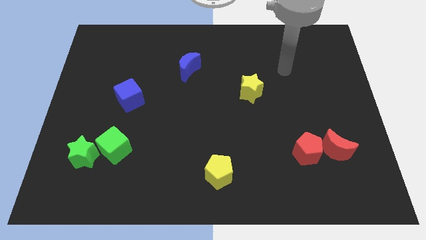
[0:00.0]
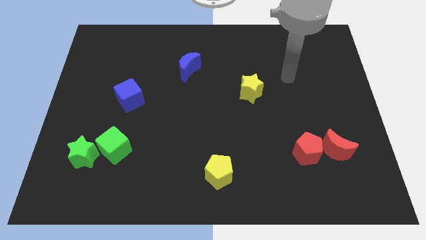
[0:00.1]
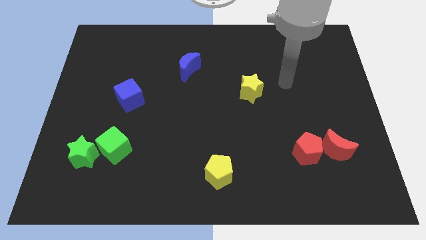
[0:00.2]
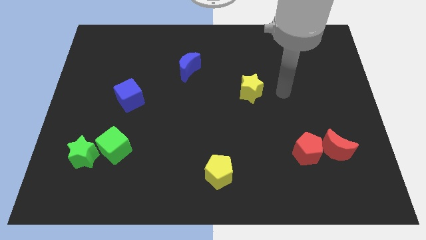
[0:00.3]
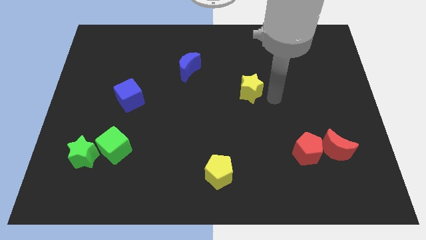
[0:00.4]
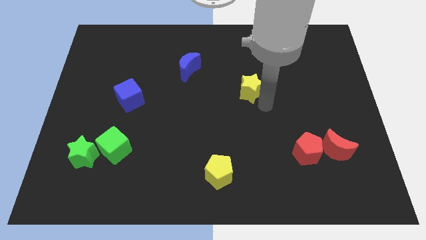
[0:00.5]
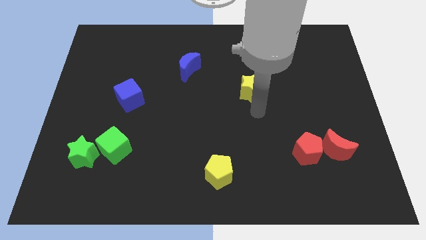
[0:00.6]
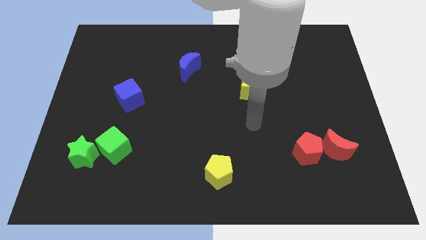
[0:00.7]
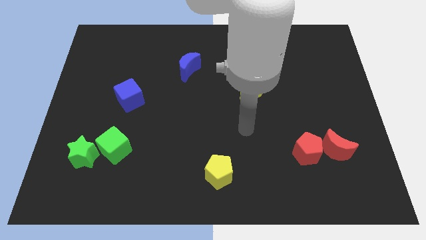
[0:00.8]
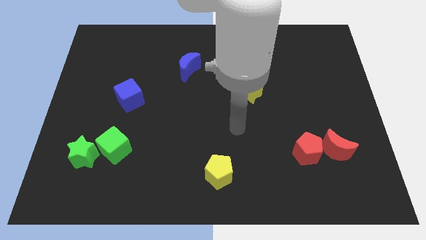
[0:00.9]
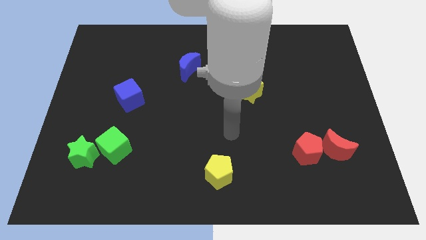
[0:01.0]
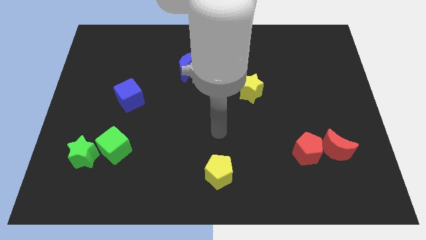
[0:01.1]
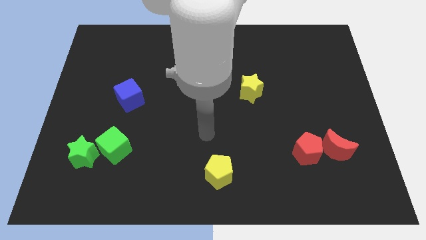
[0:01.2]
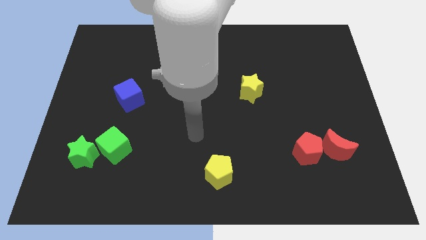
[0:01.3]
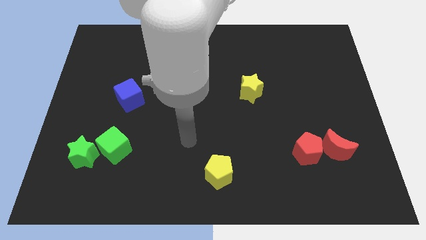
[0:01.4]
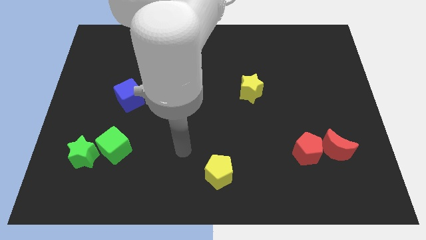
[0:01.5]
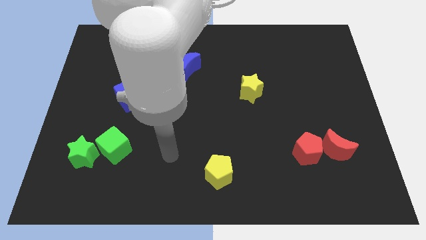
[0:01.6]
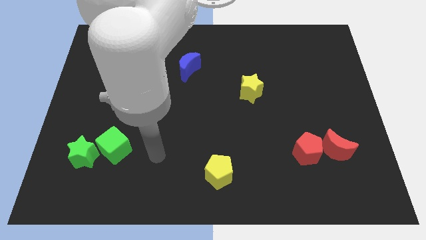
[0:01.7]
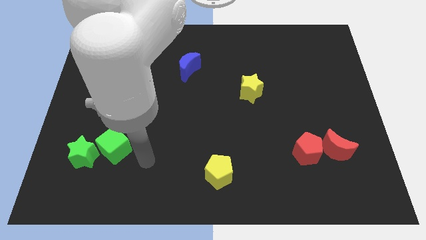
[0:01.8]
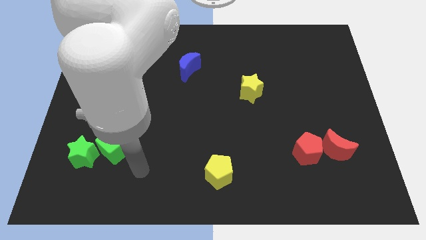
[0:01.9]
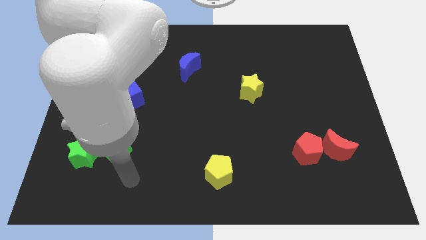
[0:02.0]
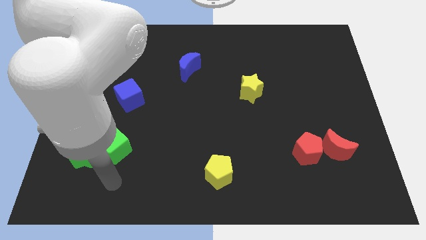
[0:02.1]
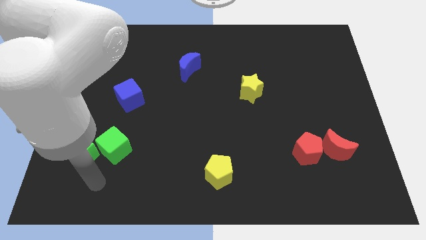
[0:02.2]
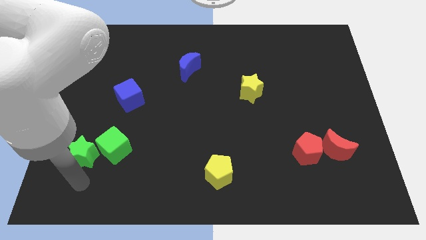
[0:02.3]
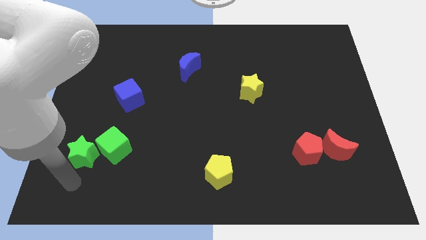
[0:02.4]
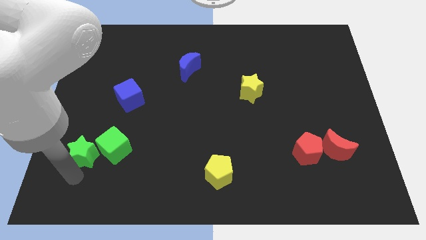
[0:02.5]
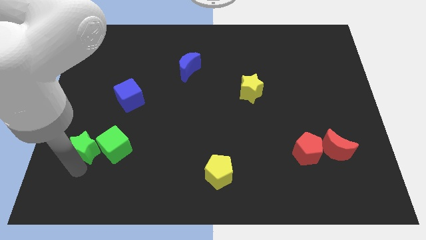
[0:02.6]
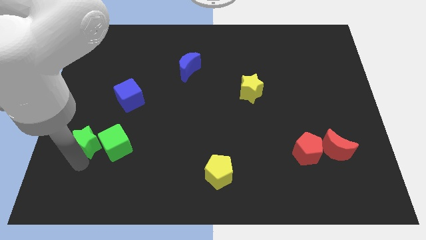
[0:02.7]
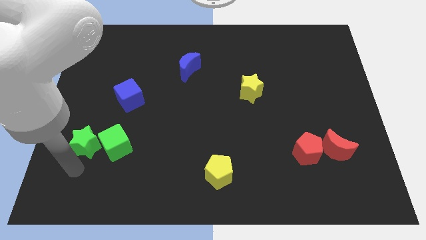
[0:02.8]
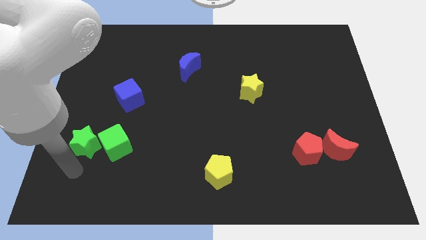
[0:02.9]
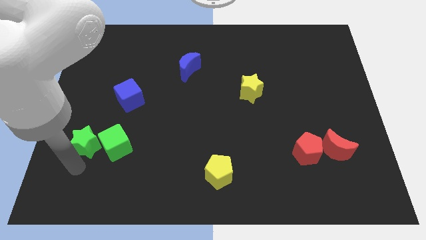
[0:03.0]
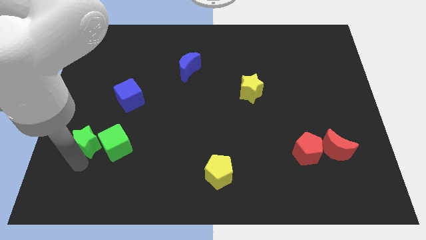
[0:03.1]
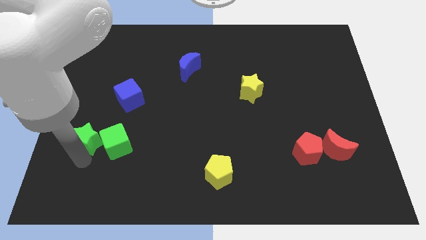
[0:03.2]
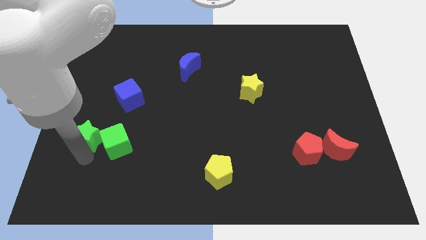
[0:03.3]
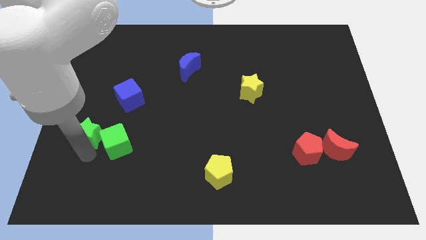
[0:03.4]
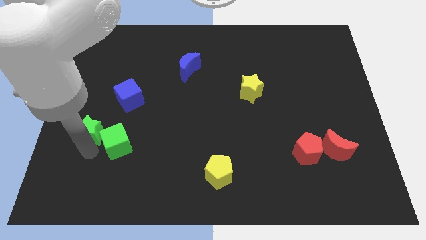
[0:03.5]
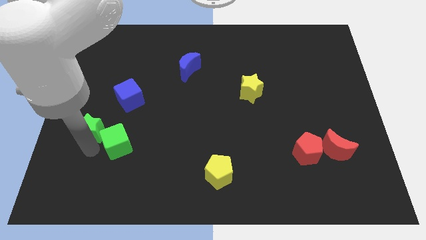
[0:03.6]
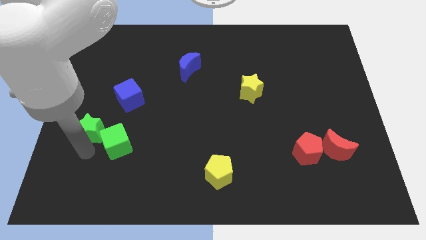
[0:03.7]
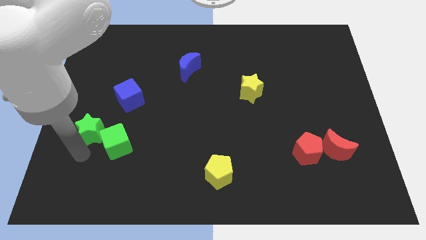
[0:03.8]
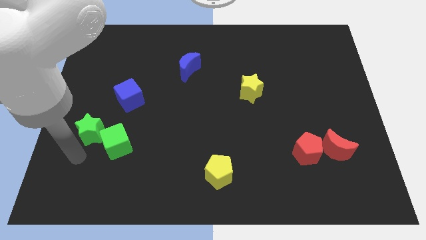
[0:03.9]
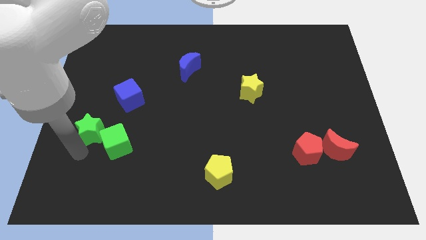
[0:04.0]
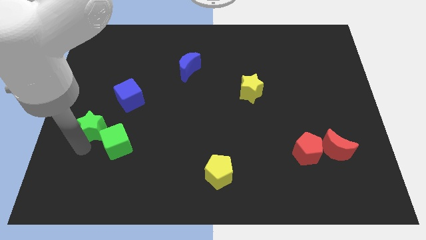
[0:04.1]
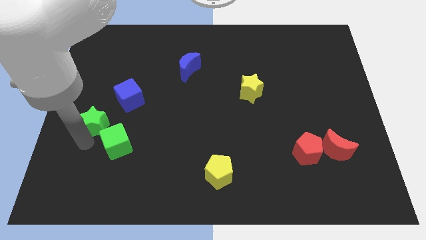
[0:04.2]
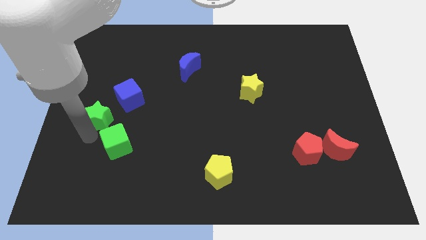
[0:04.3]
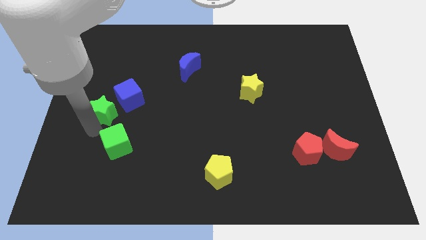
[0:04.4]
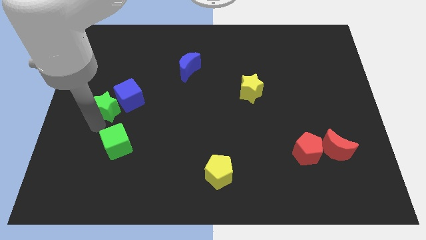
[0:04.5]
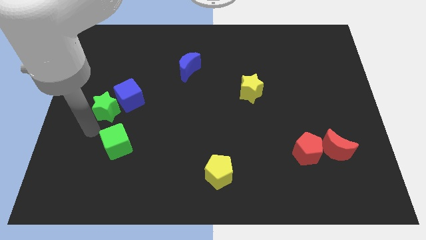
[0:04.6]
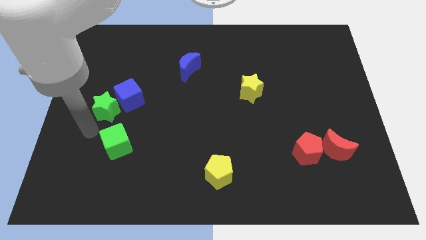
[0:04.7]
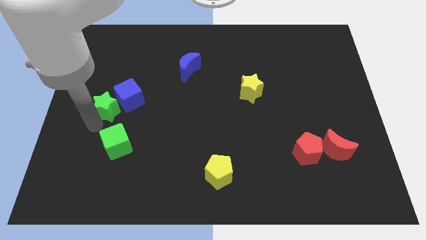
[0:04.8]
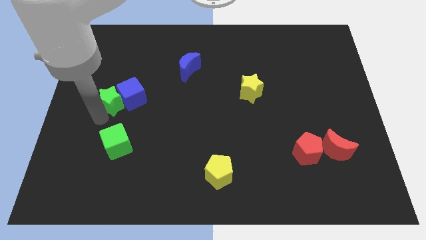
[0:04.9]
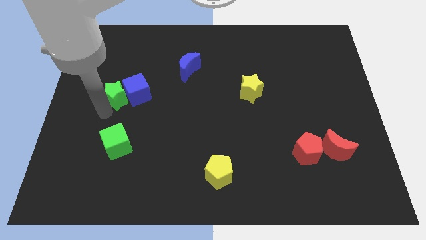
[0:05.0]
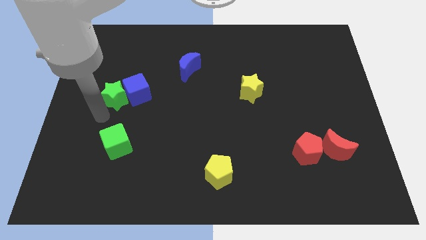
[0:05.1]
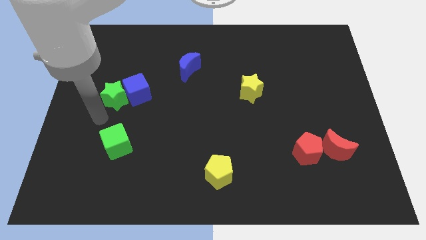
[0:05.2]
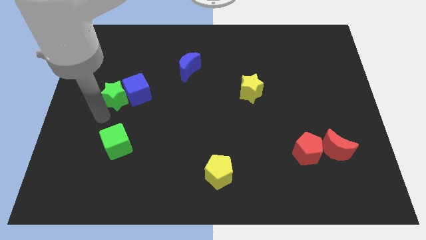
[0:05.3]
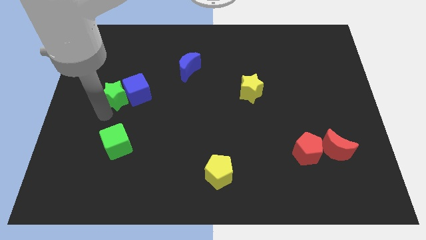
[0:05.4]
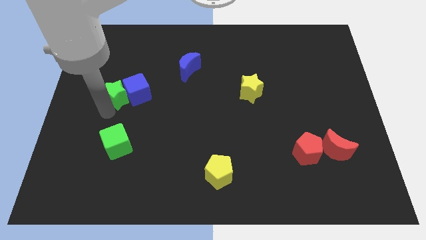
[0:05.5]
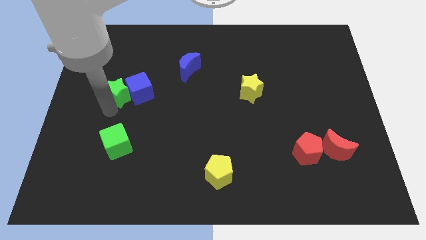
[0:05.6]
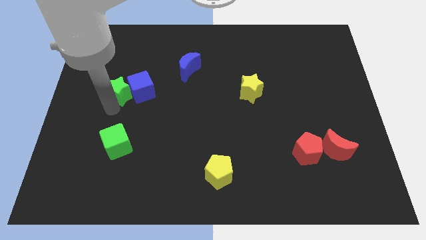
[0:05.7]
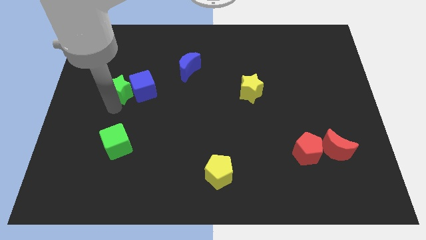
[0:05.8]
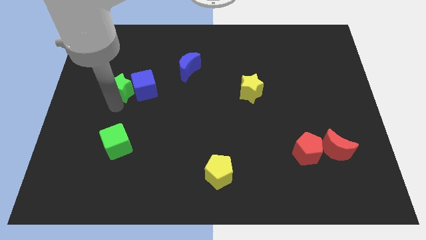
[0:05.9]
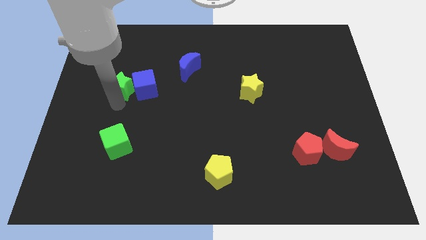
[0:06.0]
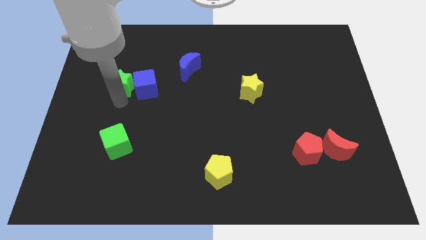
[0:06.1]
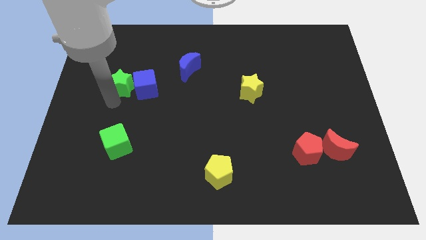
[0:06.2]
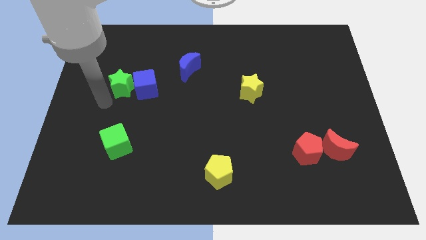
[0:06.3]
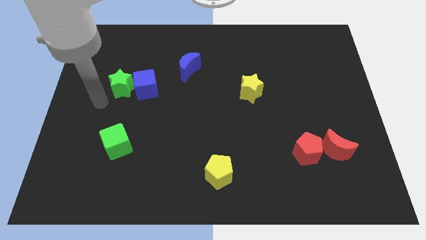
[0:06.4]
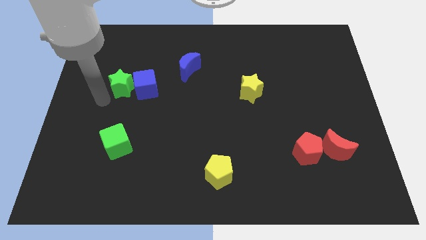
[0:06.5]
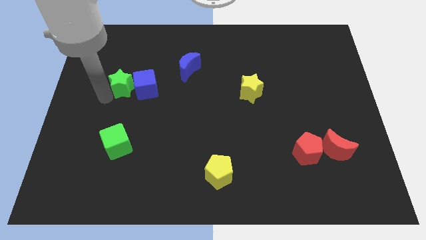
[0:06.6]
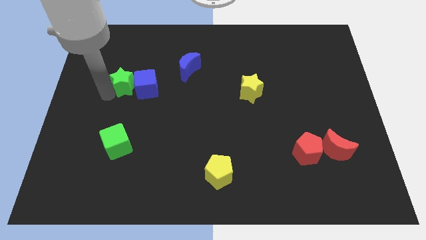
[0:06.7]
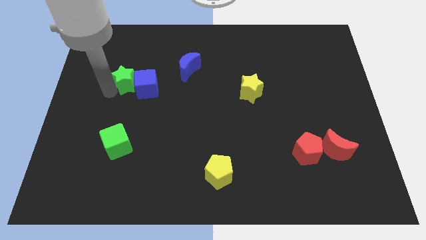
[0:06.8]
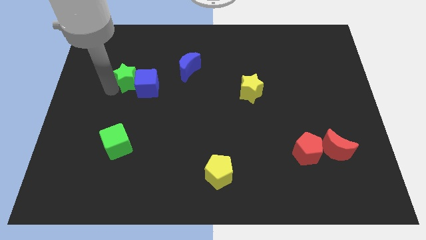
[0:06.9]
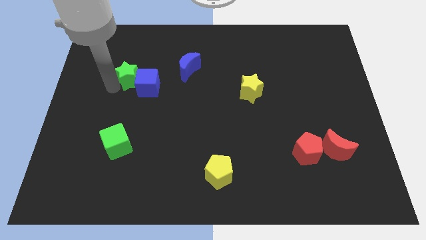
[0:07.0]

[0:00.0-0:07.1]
slide the green star to the left of the blue moon

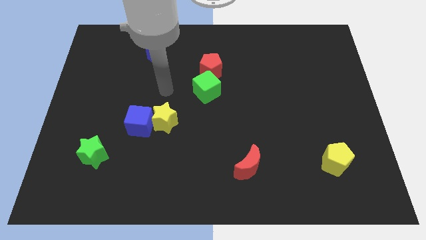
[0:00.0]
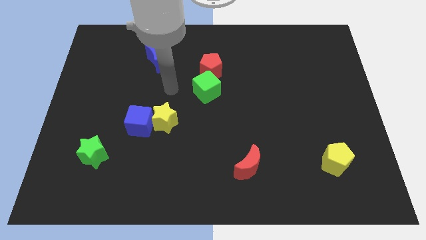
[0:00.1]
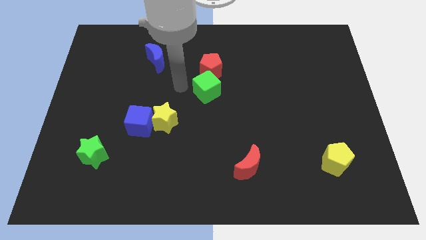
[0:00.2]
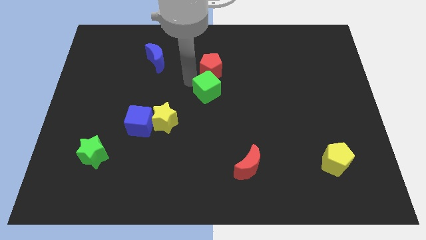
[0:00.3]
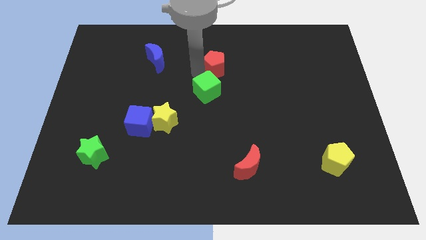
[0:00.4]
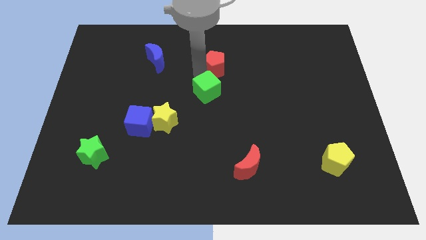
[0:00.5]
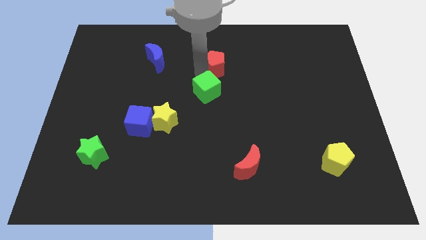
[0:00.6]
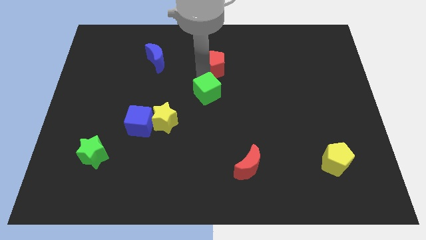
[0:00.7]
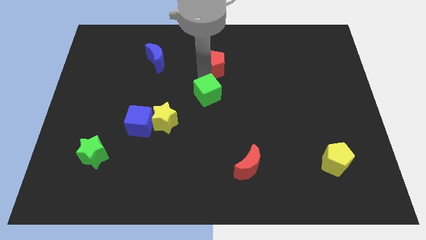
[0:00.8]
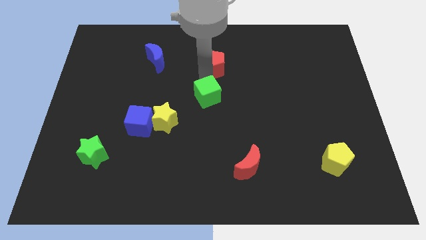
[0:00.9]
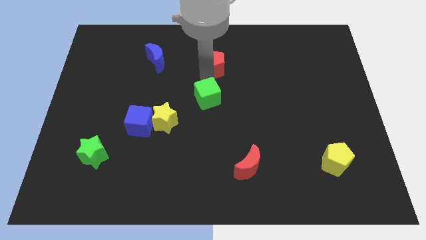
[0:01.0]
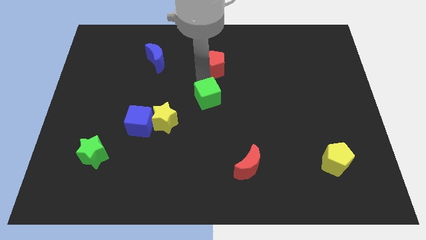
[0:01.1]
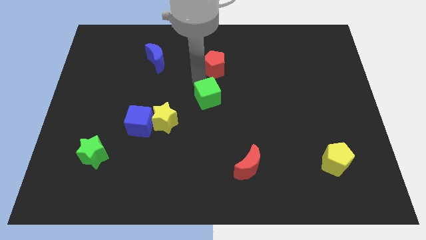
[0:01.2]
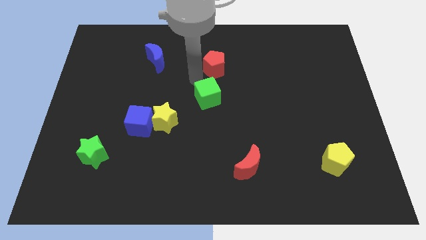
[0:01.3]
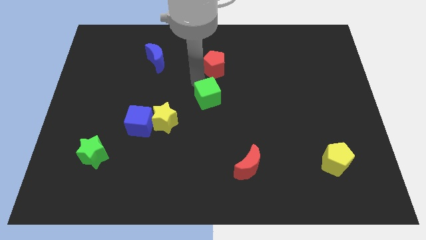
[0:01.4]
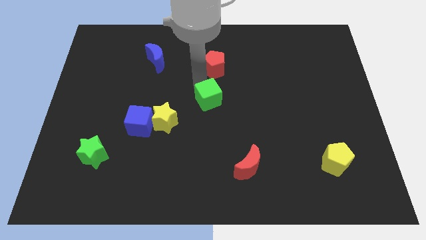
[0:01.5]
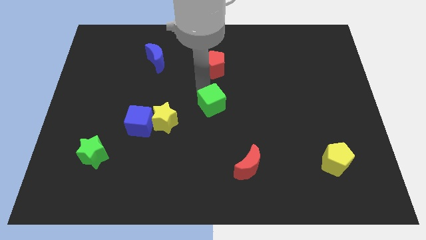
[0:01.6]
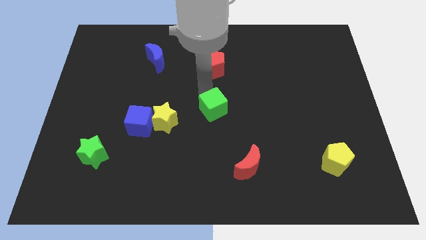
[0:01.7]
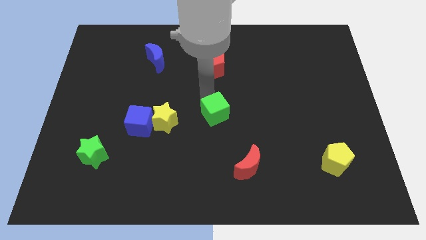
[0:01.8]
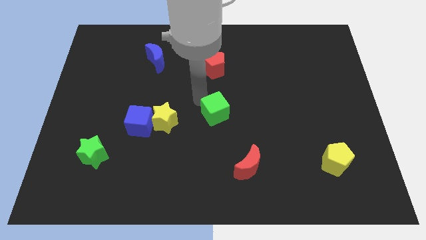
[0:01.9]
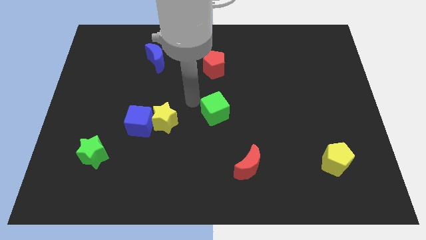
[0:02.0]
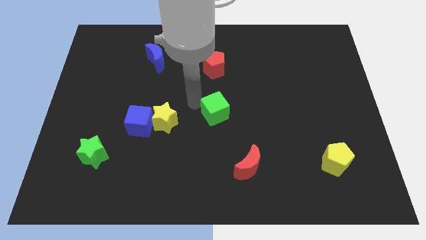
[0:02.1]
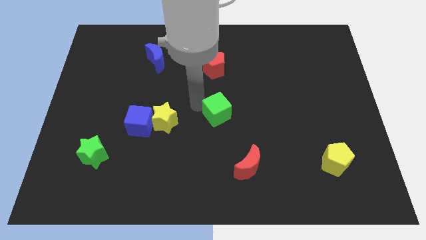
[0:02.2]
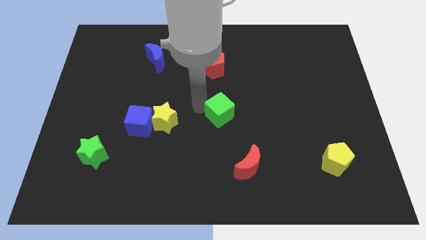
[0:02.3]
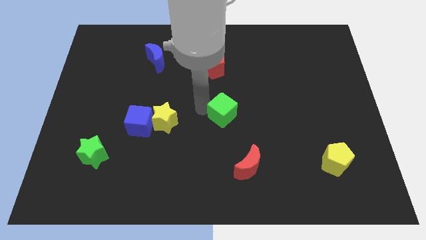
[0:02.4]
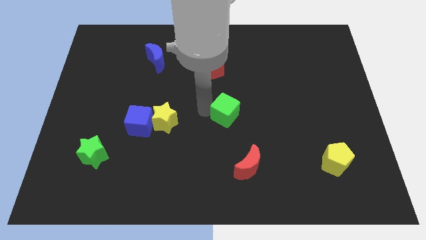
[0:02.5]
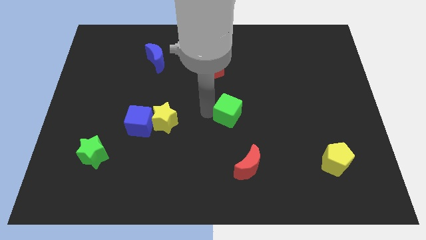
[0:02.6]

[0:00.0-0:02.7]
move the green cube to the top side of the red moon
